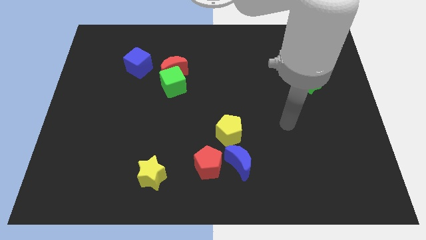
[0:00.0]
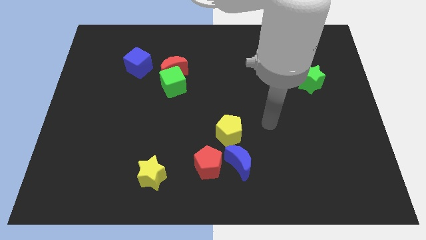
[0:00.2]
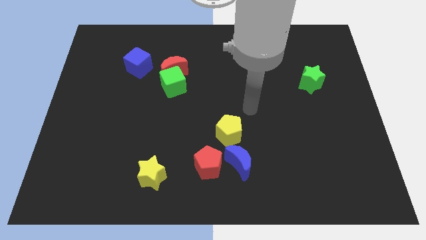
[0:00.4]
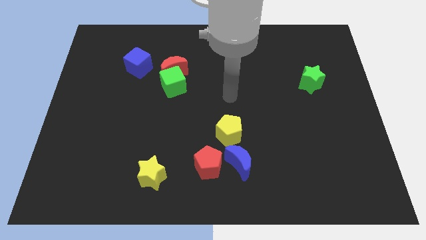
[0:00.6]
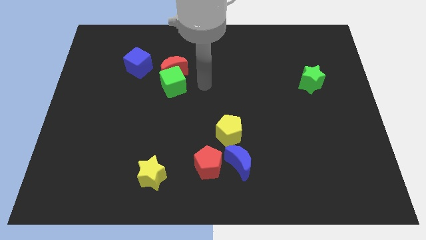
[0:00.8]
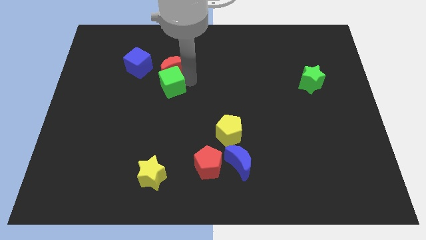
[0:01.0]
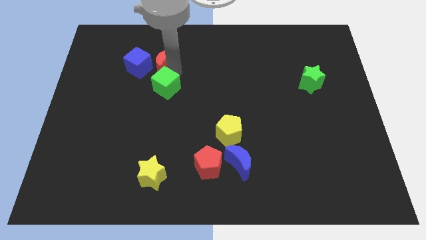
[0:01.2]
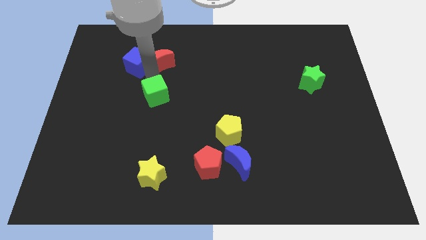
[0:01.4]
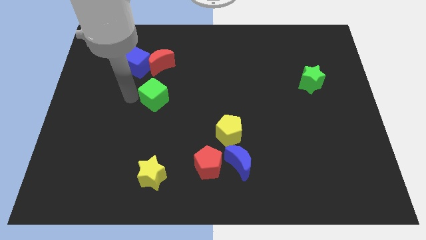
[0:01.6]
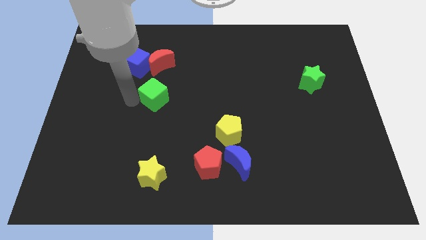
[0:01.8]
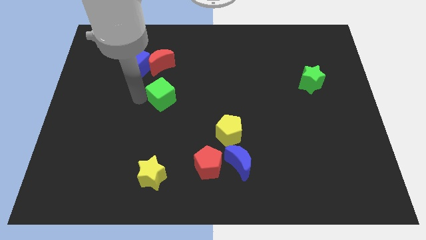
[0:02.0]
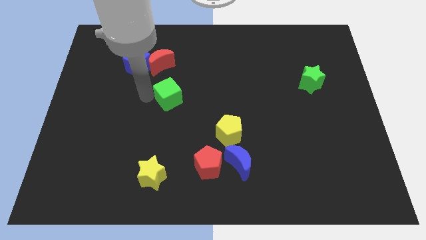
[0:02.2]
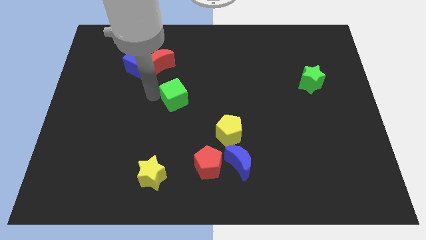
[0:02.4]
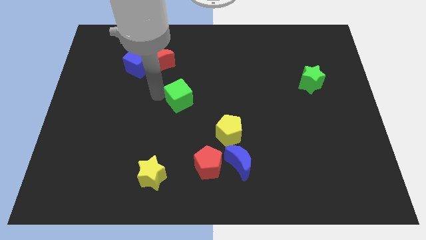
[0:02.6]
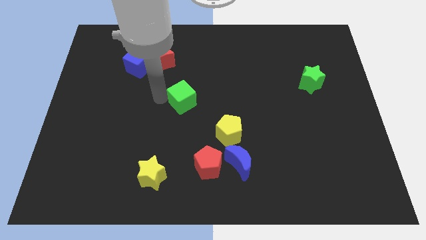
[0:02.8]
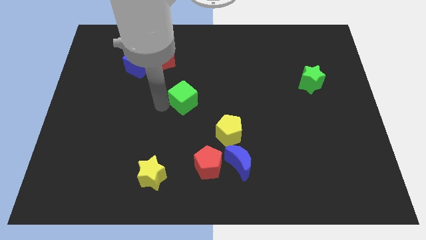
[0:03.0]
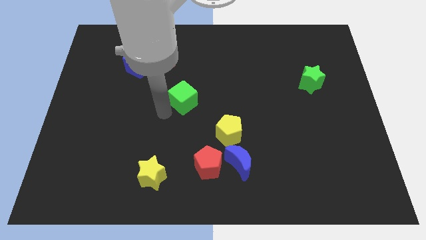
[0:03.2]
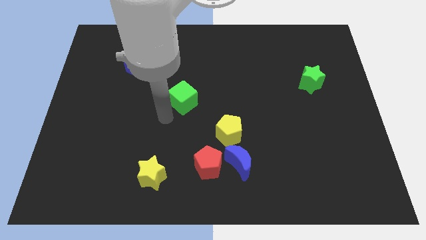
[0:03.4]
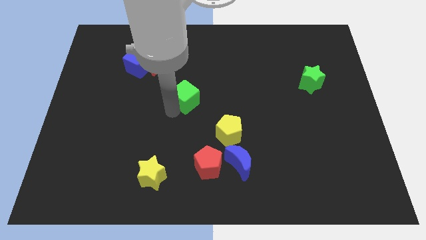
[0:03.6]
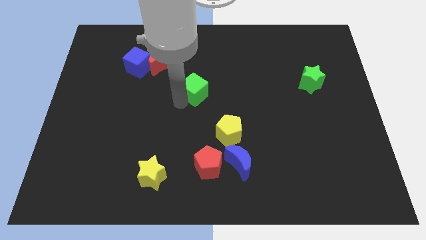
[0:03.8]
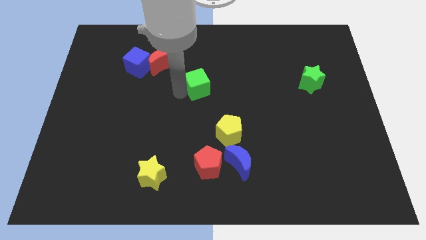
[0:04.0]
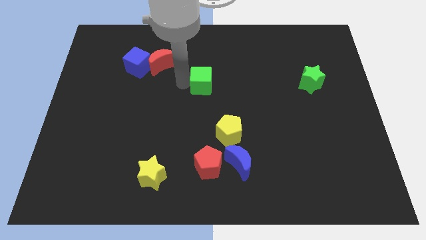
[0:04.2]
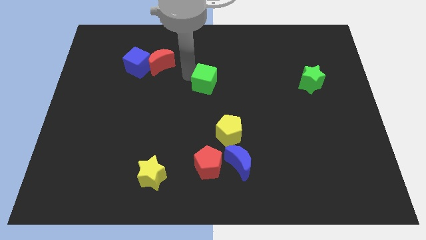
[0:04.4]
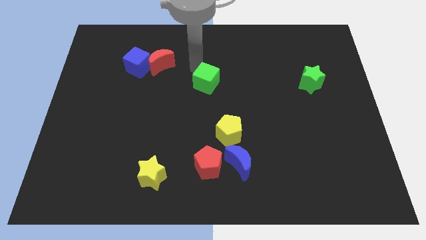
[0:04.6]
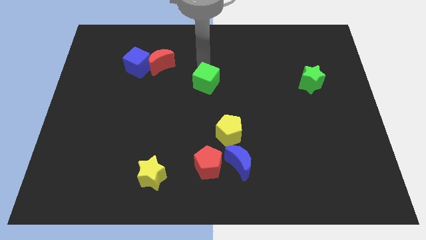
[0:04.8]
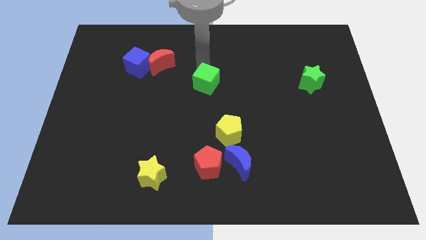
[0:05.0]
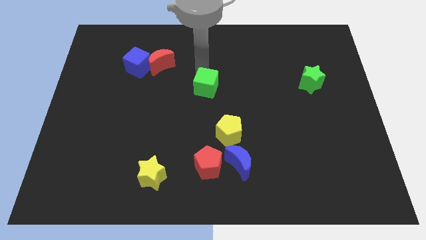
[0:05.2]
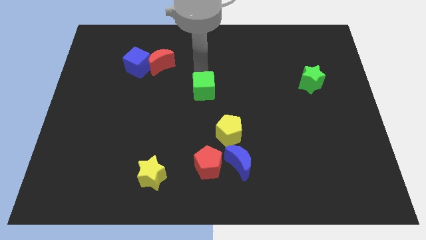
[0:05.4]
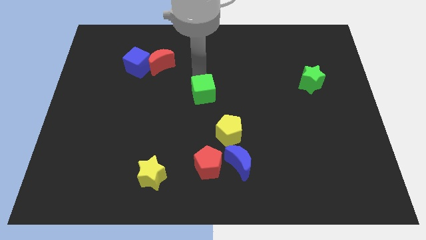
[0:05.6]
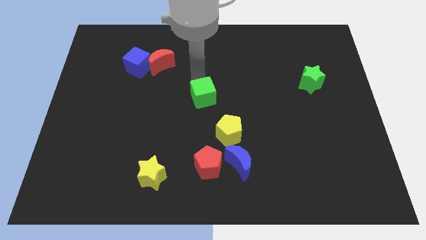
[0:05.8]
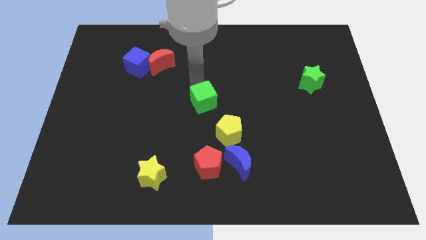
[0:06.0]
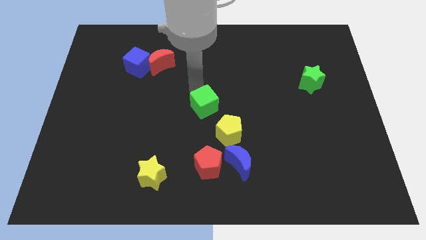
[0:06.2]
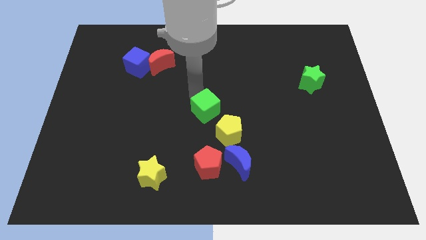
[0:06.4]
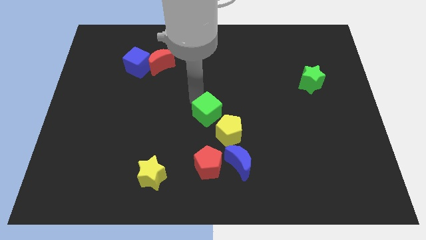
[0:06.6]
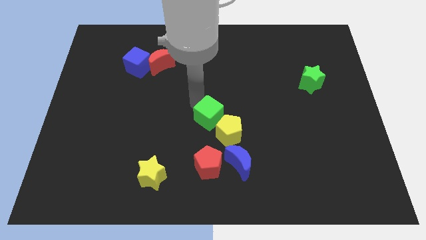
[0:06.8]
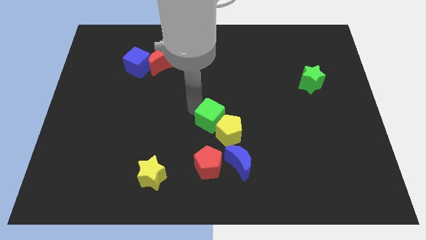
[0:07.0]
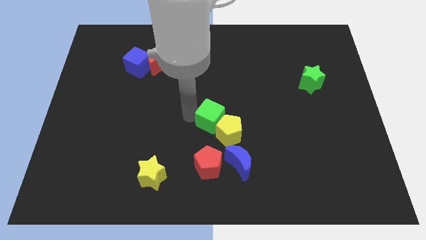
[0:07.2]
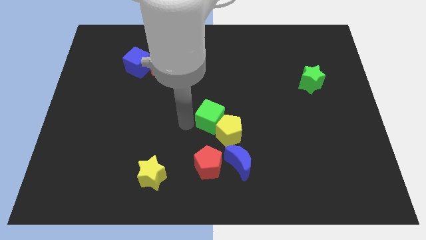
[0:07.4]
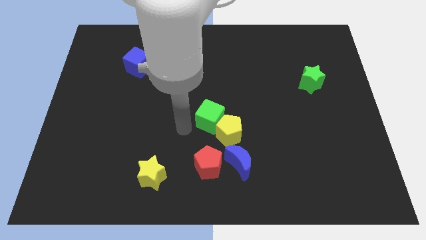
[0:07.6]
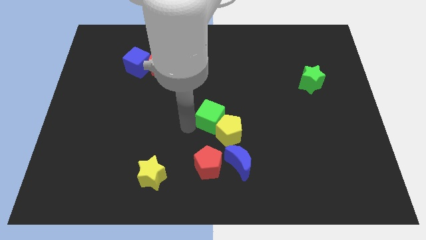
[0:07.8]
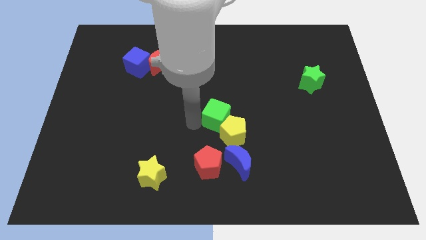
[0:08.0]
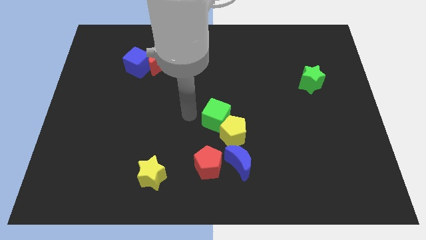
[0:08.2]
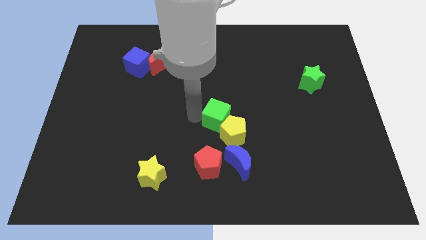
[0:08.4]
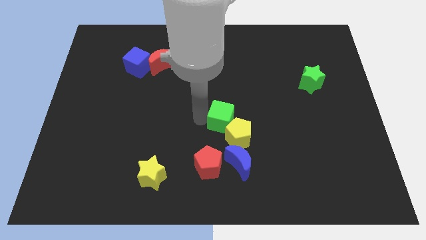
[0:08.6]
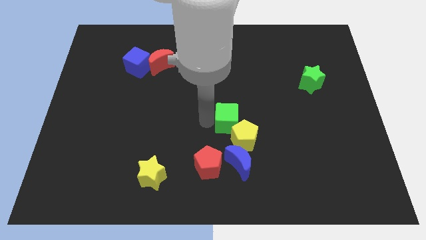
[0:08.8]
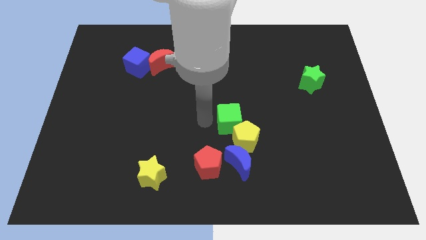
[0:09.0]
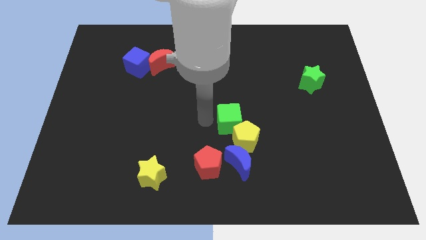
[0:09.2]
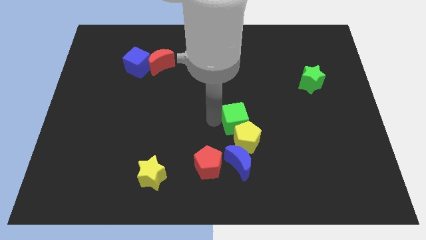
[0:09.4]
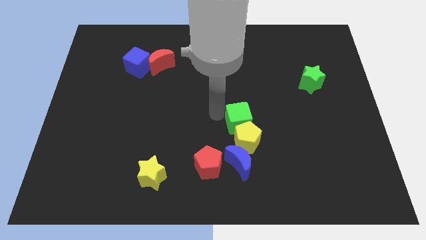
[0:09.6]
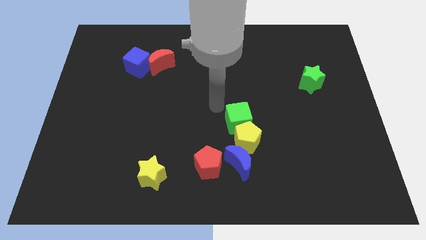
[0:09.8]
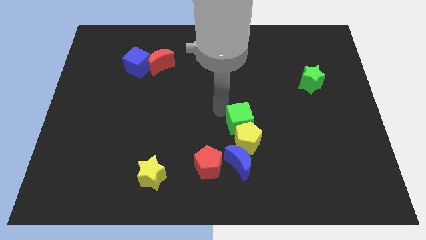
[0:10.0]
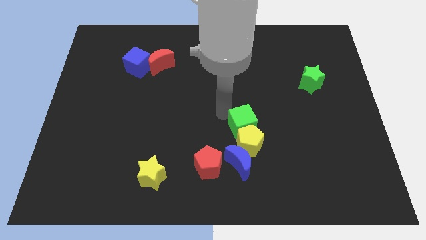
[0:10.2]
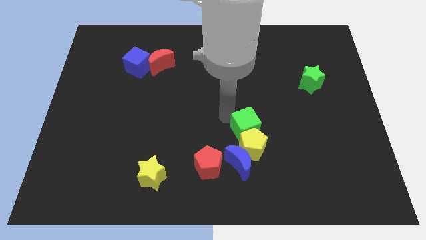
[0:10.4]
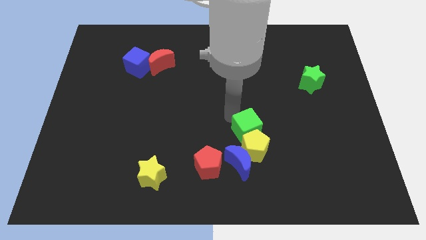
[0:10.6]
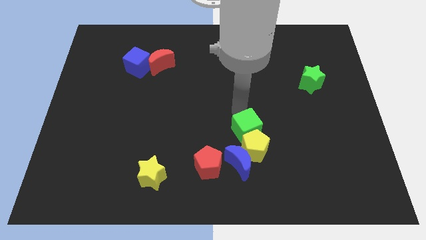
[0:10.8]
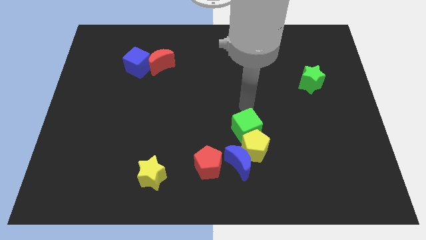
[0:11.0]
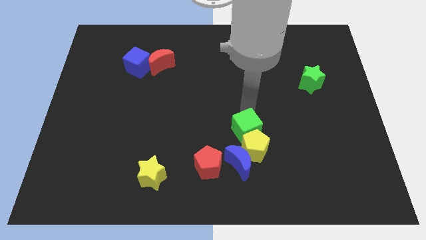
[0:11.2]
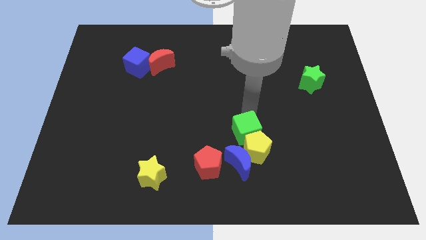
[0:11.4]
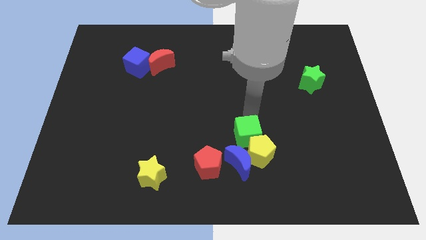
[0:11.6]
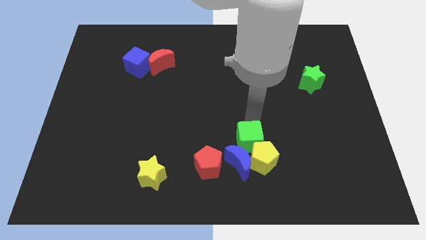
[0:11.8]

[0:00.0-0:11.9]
move the green cube close to the blue moon

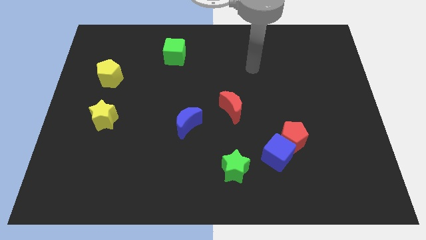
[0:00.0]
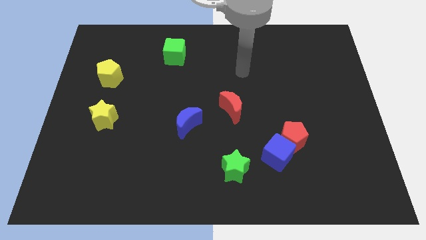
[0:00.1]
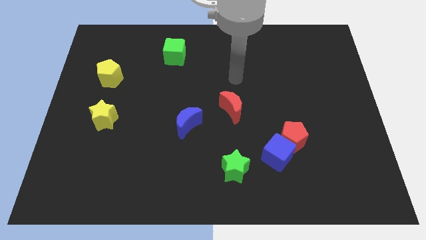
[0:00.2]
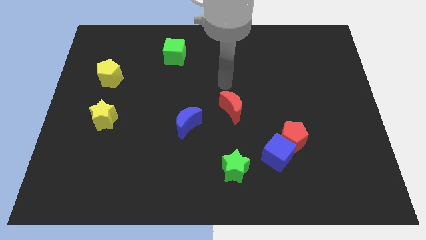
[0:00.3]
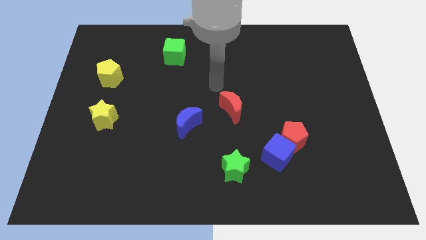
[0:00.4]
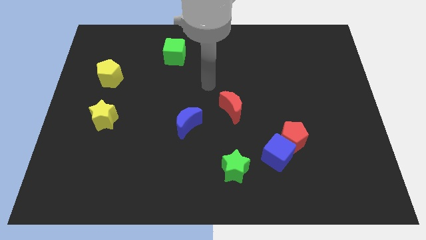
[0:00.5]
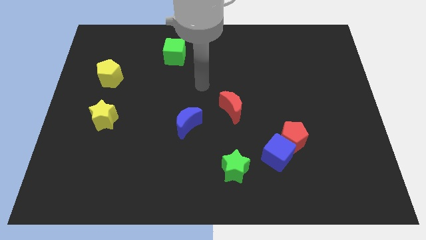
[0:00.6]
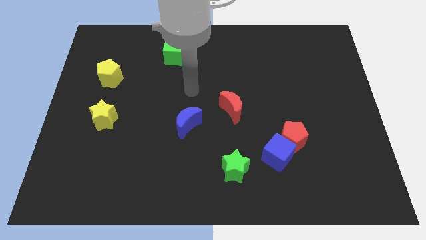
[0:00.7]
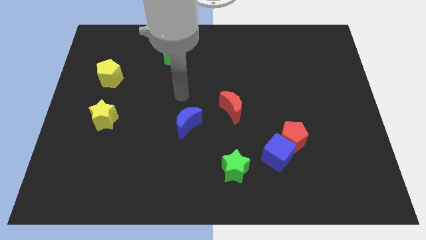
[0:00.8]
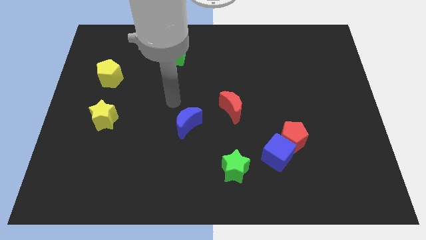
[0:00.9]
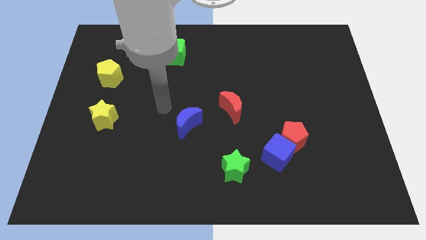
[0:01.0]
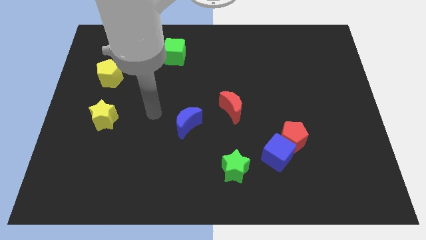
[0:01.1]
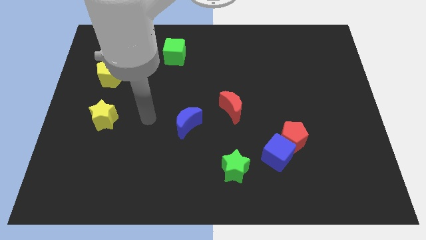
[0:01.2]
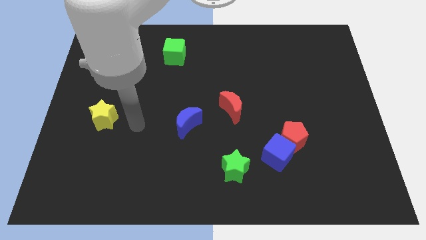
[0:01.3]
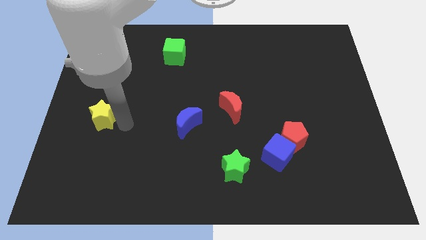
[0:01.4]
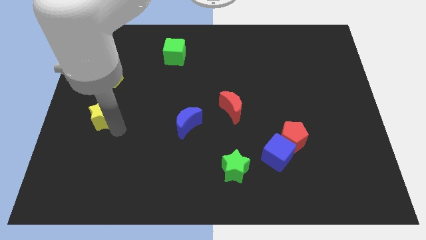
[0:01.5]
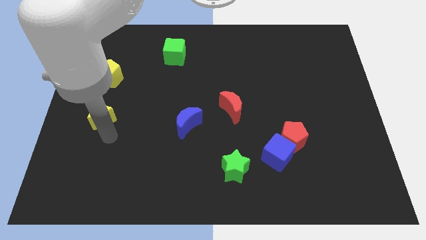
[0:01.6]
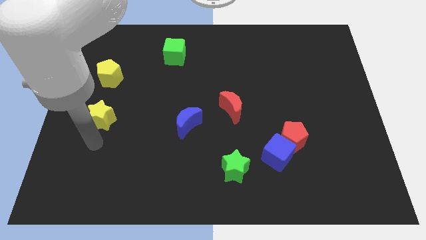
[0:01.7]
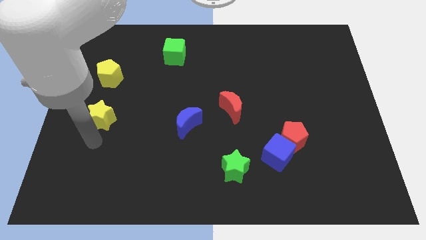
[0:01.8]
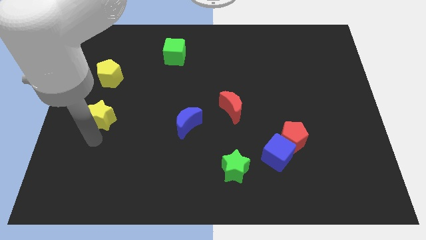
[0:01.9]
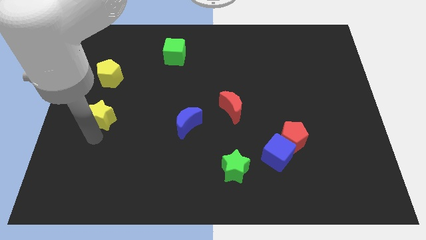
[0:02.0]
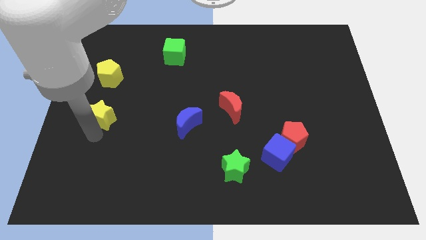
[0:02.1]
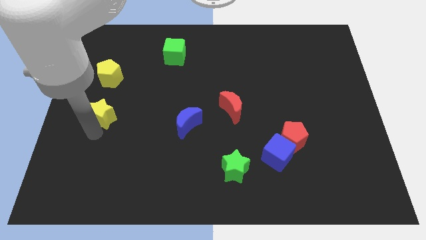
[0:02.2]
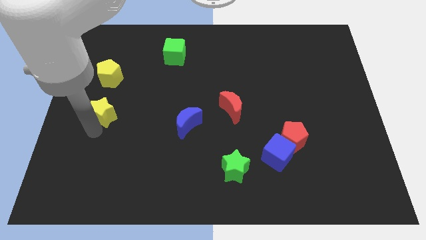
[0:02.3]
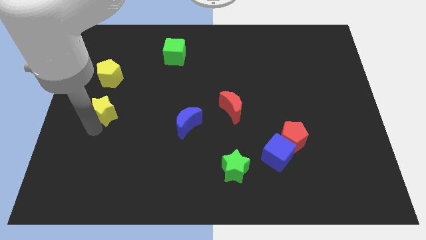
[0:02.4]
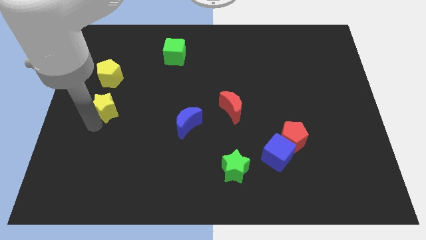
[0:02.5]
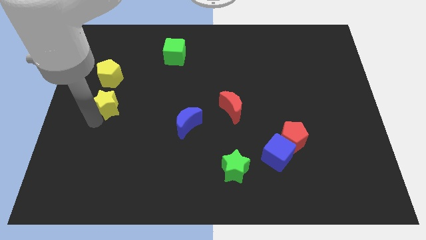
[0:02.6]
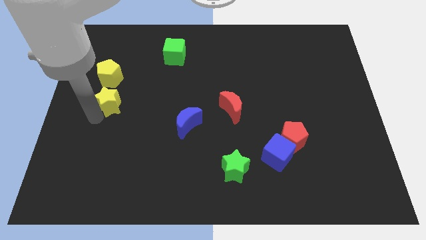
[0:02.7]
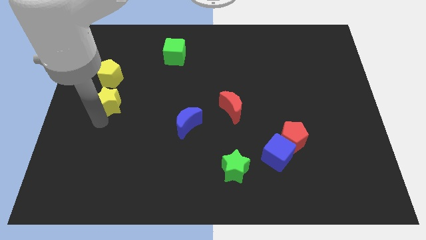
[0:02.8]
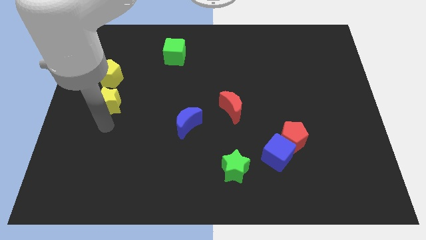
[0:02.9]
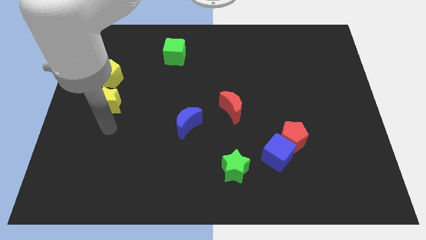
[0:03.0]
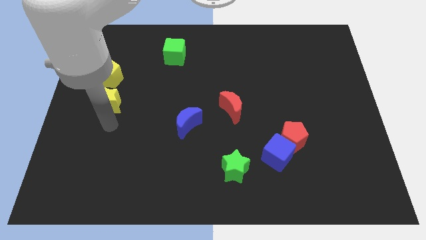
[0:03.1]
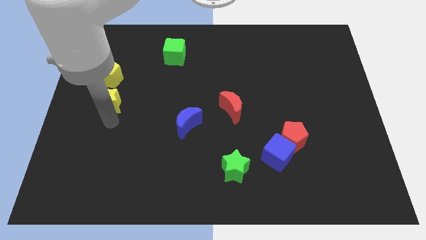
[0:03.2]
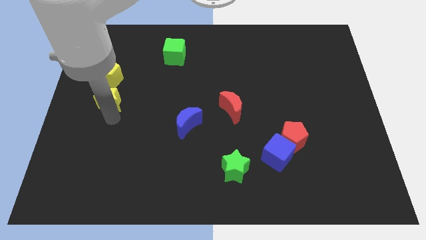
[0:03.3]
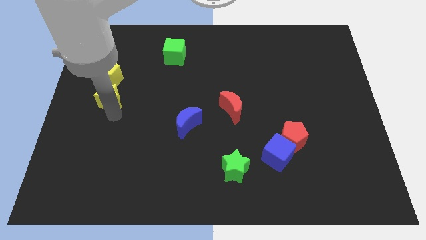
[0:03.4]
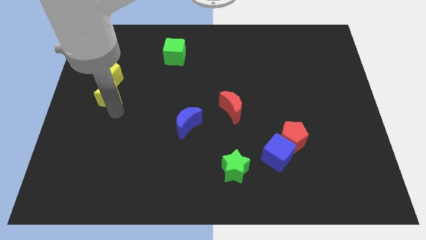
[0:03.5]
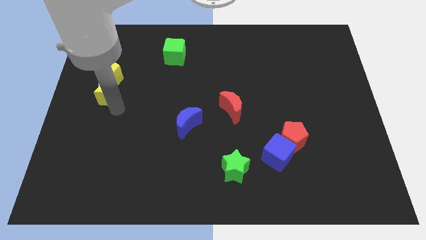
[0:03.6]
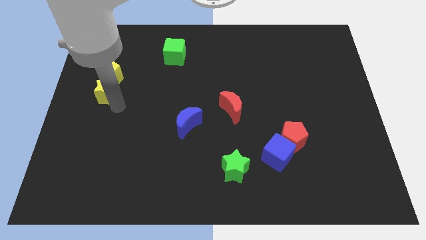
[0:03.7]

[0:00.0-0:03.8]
move the yellow star next to the yellow pentagon
